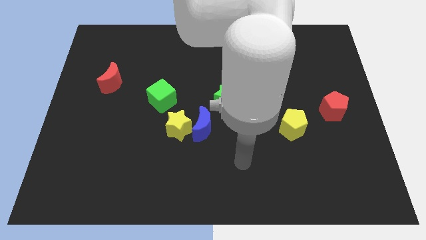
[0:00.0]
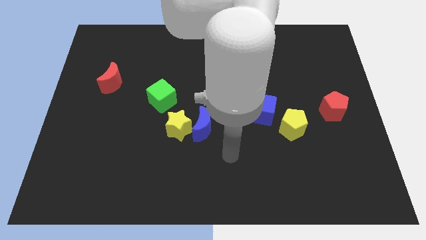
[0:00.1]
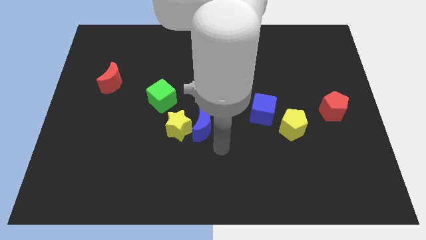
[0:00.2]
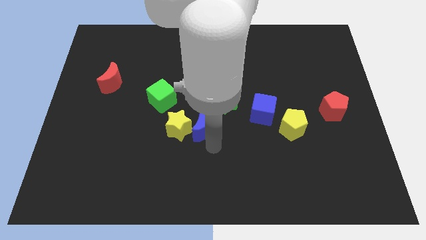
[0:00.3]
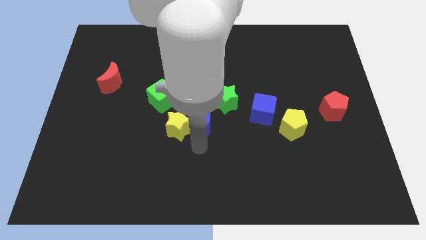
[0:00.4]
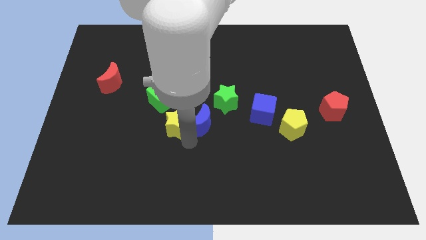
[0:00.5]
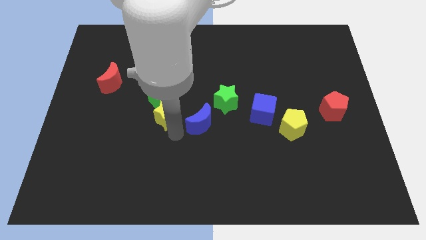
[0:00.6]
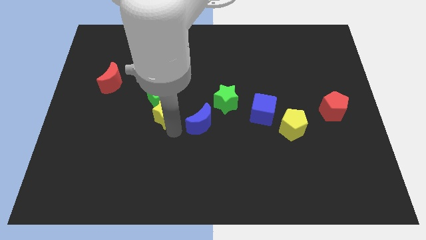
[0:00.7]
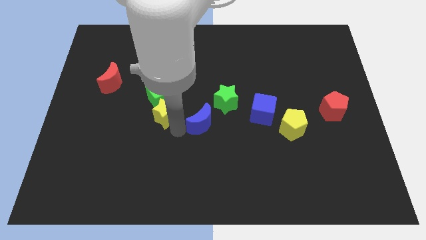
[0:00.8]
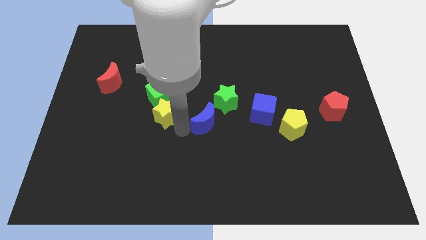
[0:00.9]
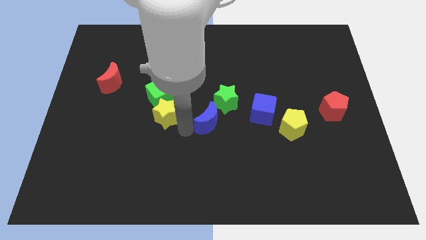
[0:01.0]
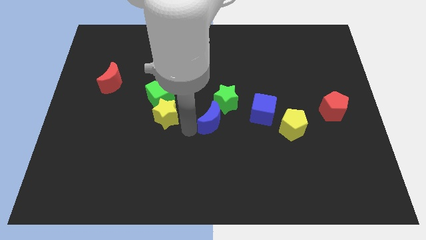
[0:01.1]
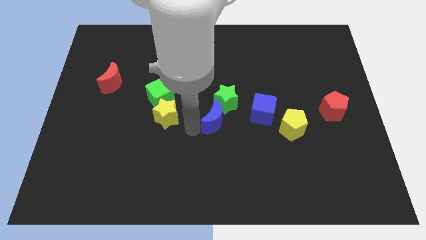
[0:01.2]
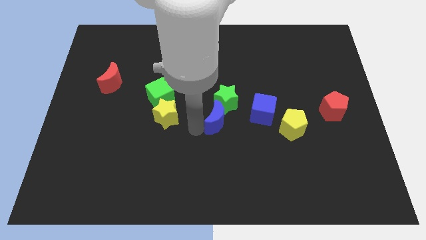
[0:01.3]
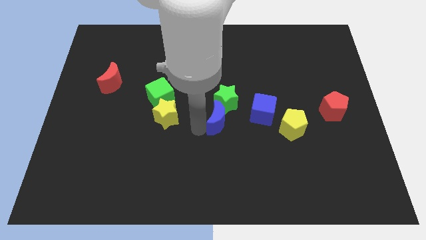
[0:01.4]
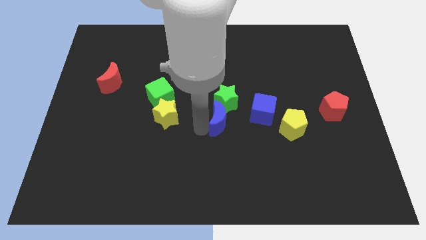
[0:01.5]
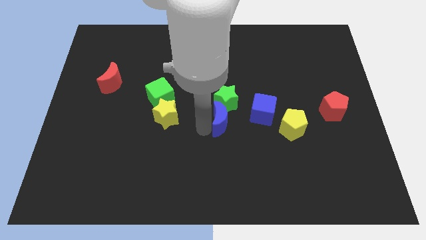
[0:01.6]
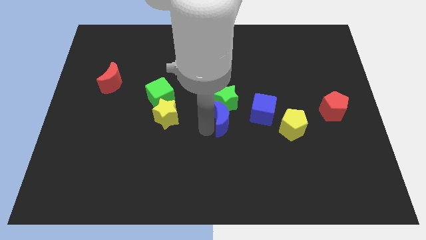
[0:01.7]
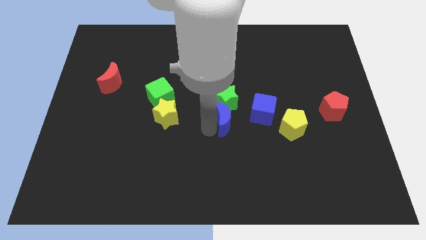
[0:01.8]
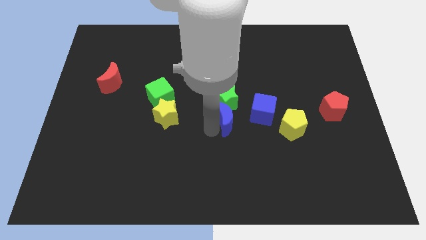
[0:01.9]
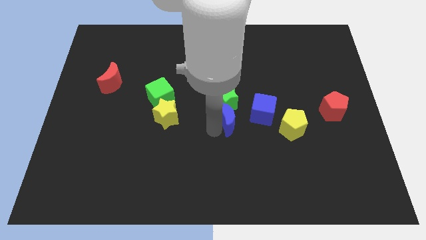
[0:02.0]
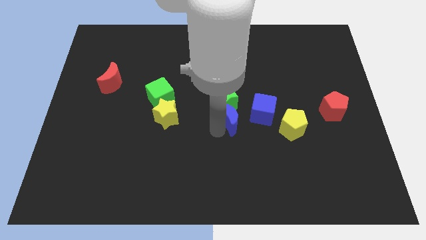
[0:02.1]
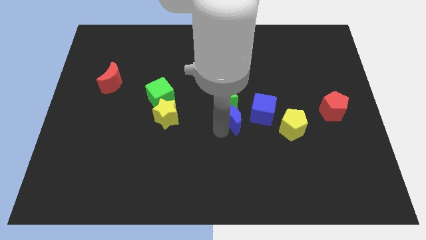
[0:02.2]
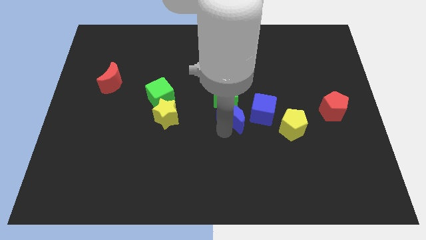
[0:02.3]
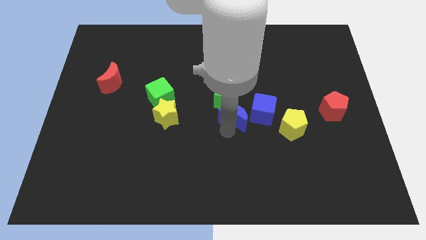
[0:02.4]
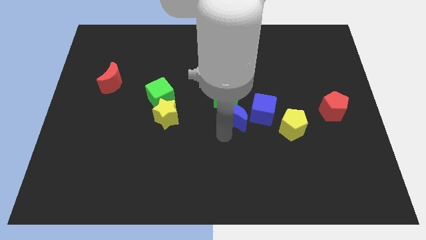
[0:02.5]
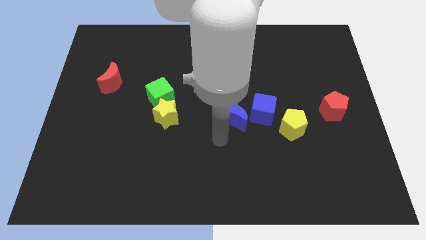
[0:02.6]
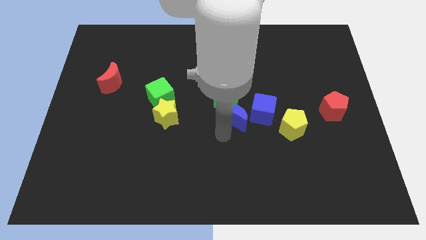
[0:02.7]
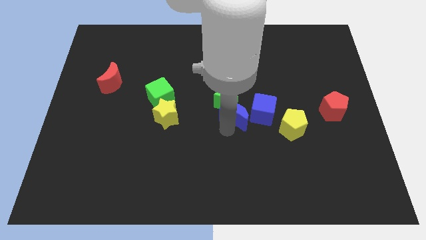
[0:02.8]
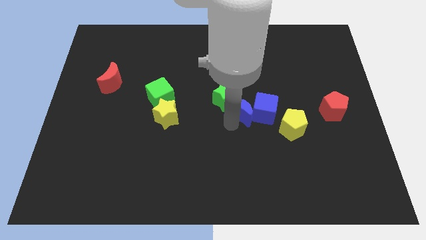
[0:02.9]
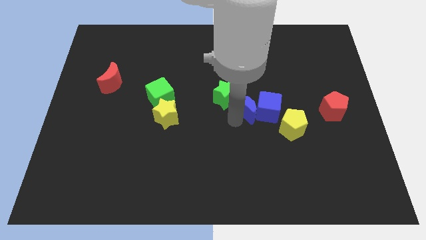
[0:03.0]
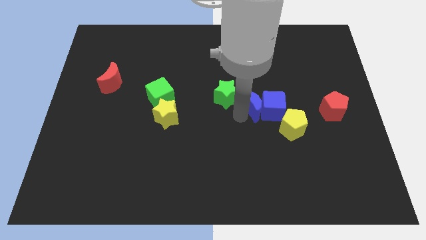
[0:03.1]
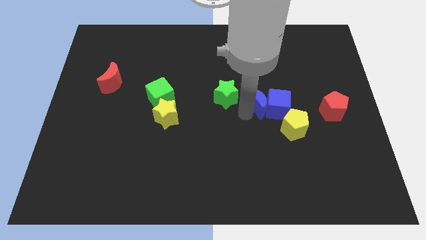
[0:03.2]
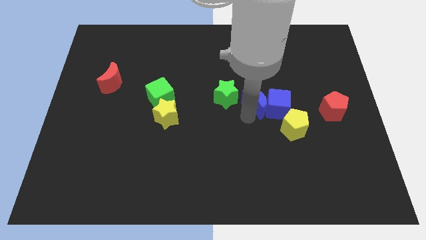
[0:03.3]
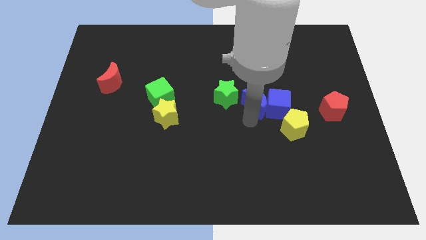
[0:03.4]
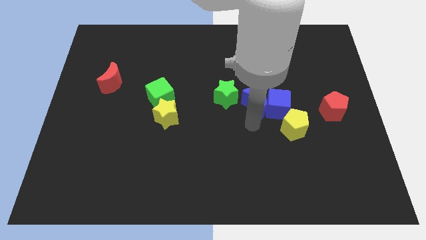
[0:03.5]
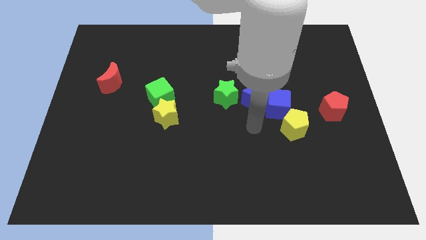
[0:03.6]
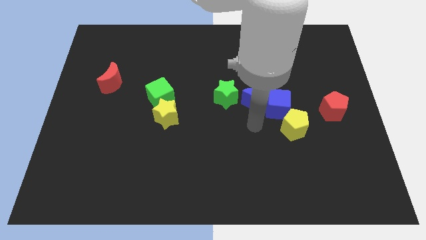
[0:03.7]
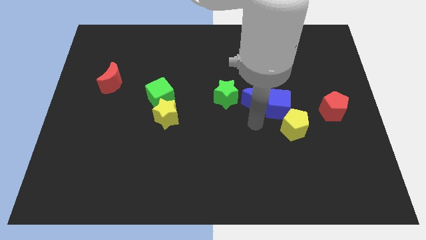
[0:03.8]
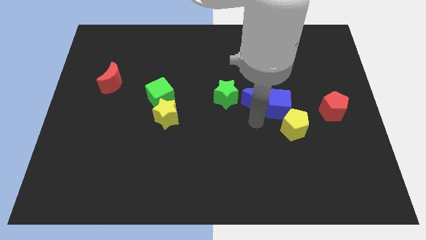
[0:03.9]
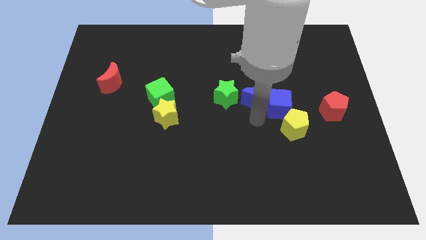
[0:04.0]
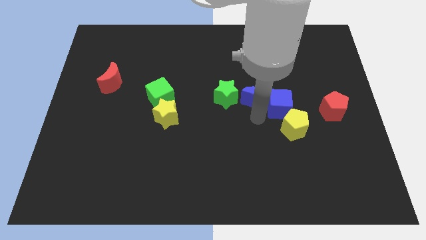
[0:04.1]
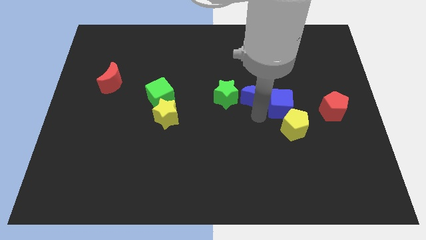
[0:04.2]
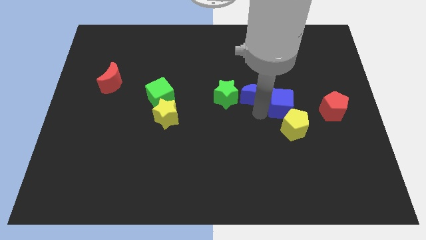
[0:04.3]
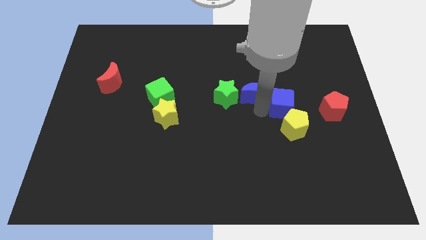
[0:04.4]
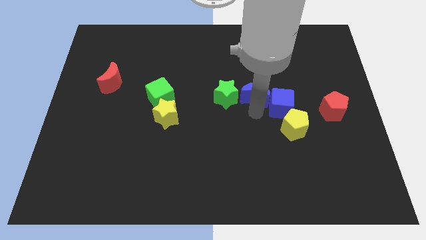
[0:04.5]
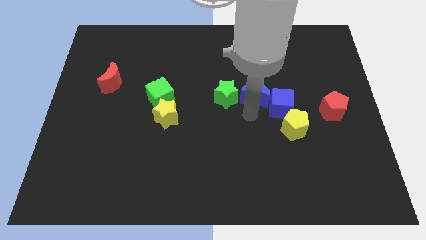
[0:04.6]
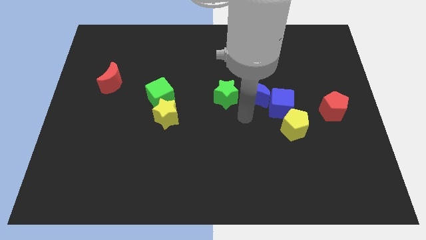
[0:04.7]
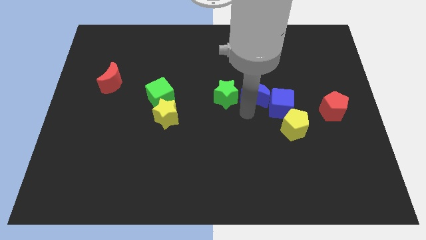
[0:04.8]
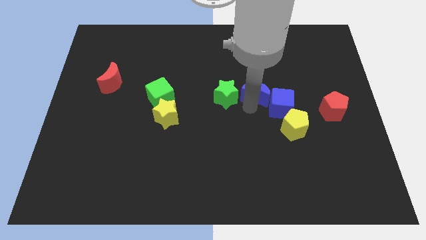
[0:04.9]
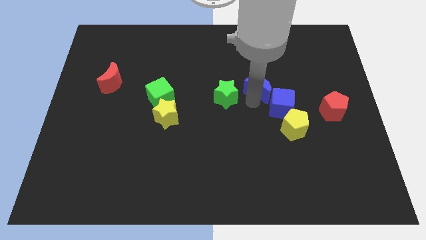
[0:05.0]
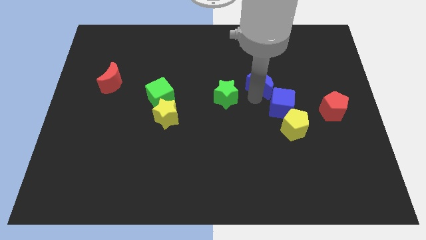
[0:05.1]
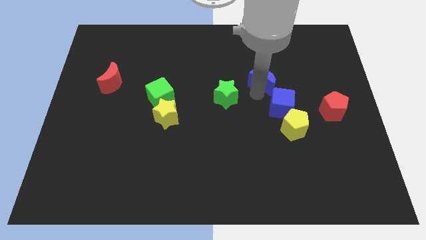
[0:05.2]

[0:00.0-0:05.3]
move the blue moon diagonally up and to the right

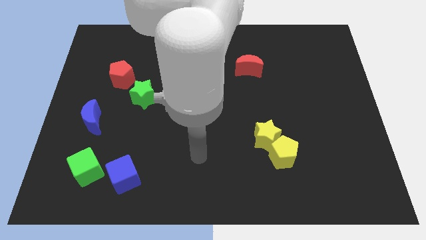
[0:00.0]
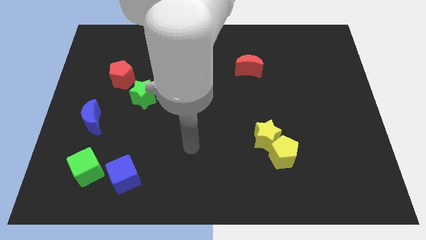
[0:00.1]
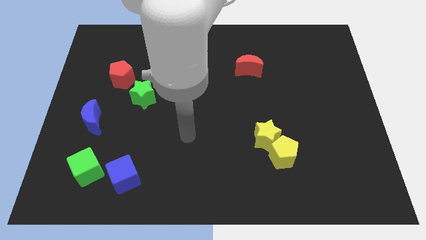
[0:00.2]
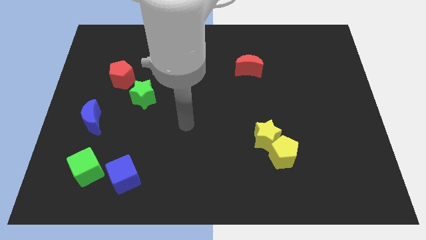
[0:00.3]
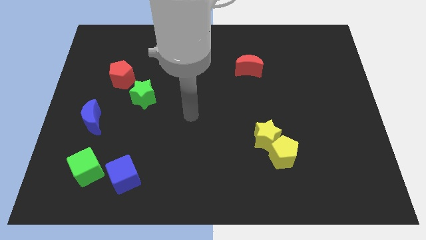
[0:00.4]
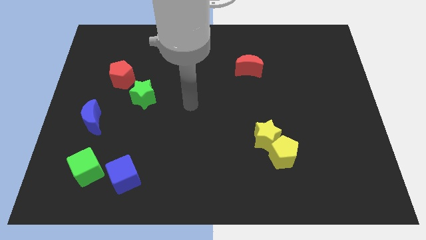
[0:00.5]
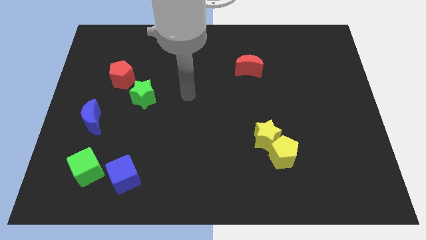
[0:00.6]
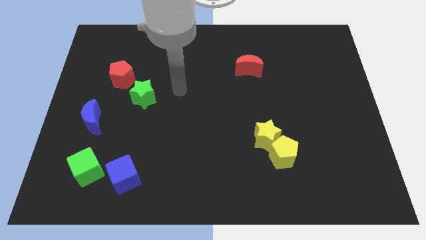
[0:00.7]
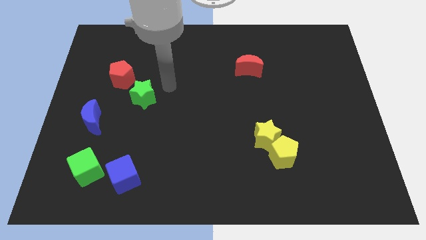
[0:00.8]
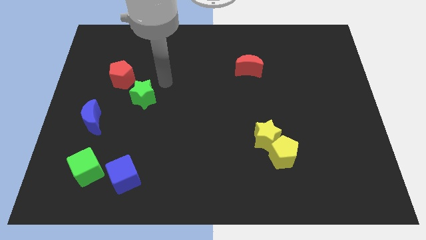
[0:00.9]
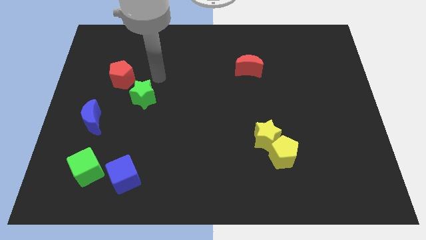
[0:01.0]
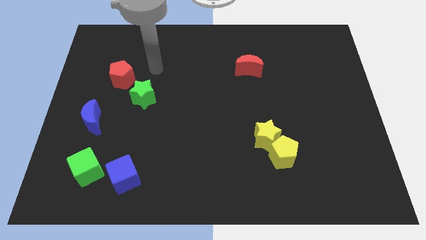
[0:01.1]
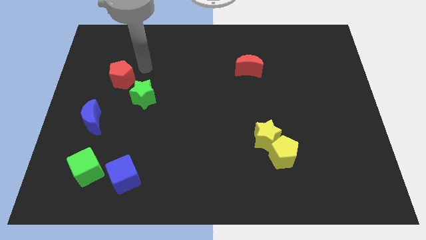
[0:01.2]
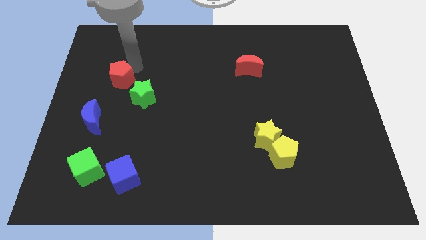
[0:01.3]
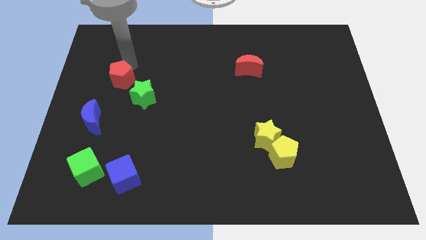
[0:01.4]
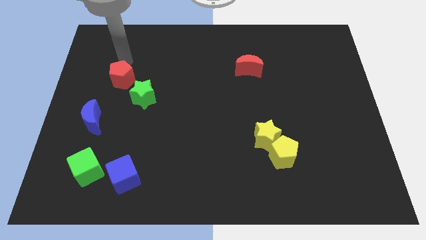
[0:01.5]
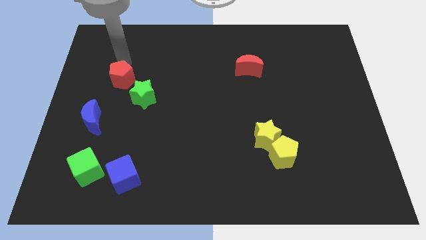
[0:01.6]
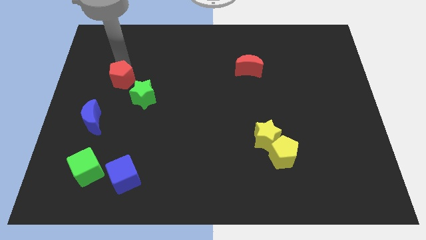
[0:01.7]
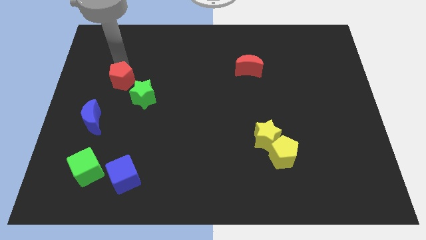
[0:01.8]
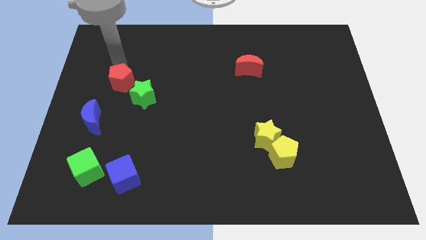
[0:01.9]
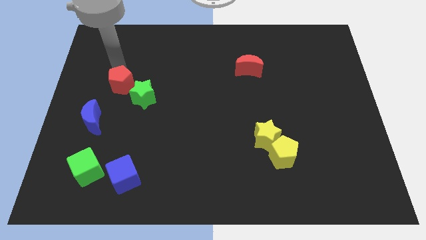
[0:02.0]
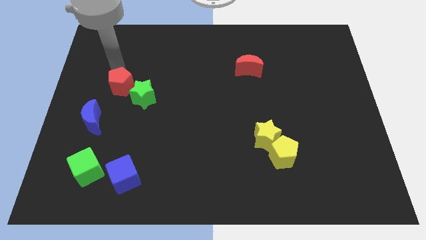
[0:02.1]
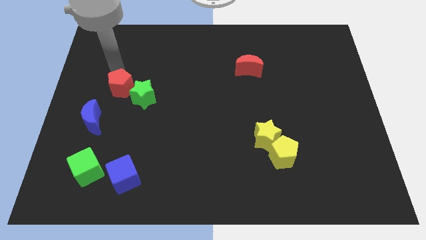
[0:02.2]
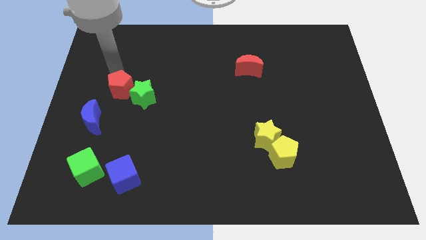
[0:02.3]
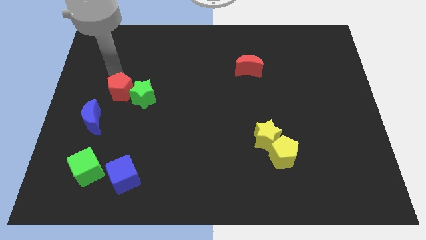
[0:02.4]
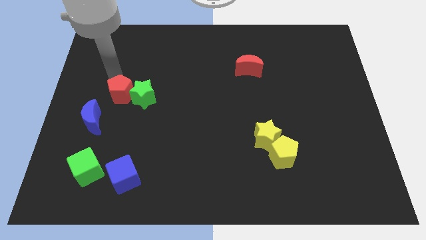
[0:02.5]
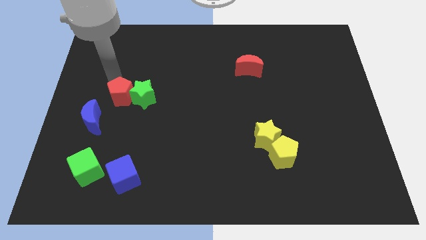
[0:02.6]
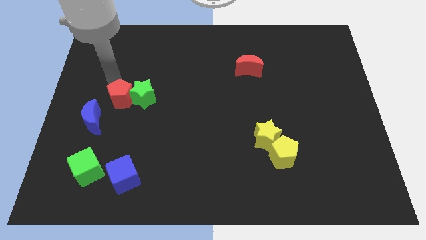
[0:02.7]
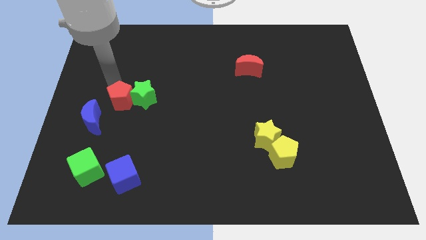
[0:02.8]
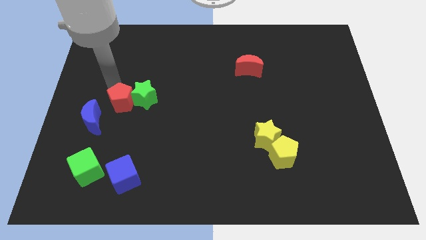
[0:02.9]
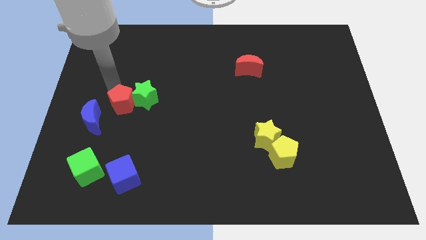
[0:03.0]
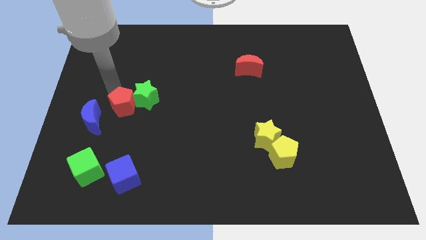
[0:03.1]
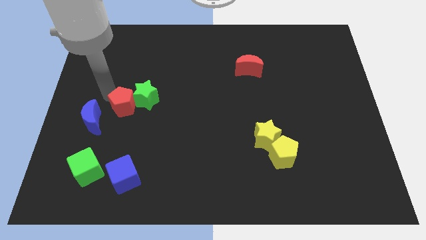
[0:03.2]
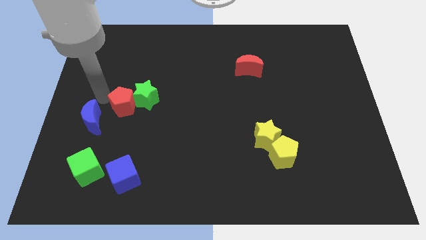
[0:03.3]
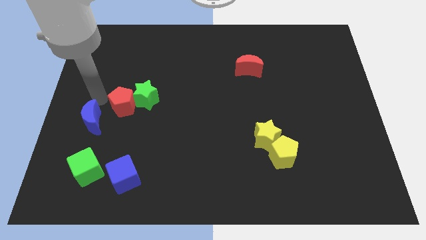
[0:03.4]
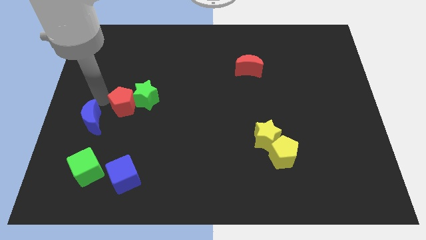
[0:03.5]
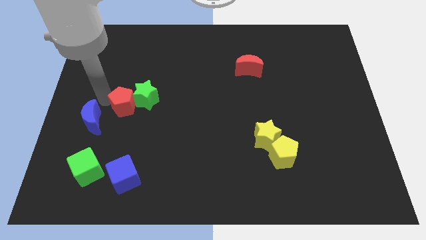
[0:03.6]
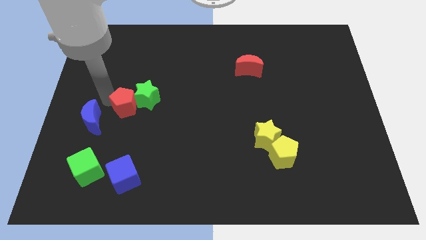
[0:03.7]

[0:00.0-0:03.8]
move the red pentagon diagonally downwards and right a bit
